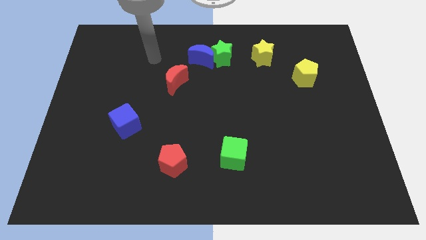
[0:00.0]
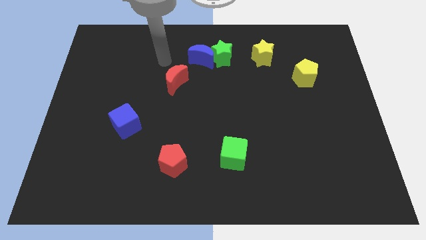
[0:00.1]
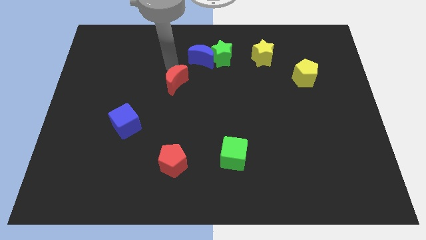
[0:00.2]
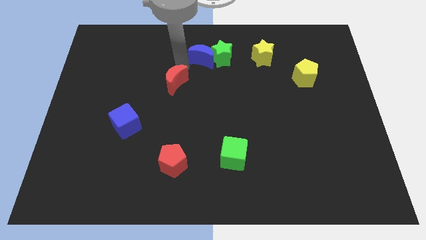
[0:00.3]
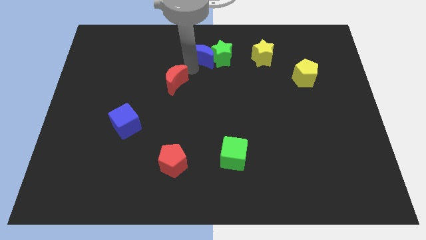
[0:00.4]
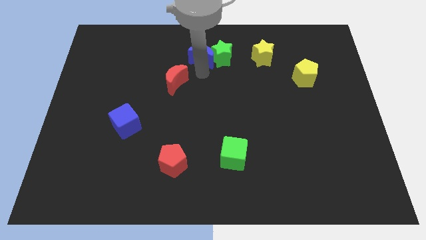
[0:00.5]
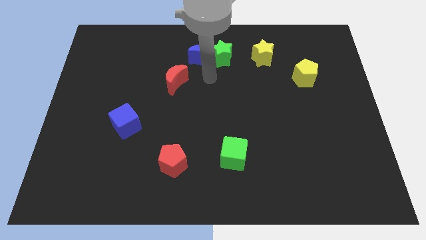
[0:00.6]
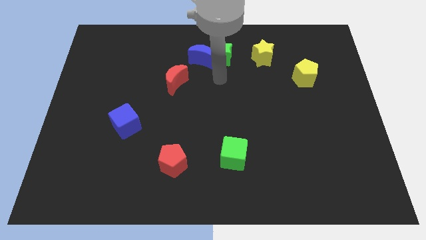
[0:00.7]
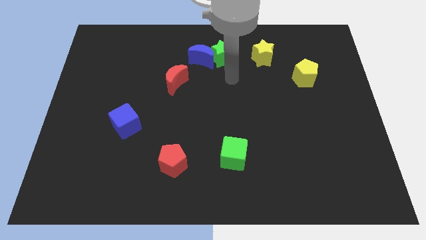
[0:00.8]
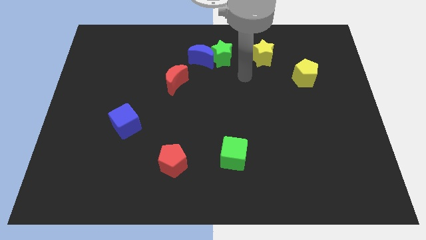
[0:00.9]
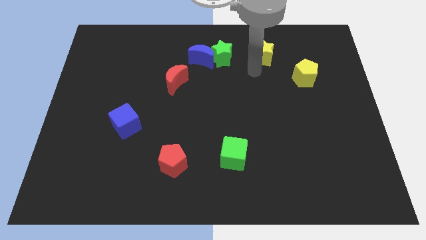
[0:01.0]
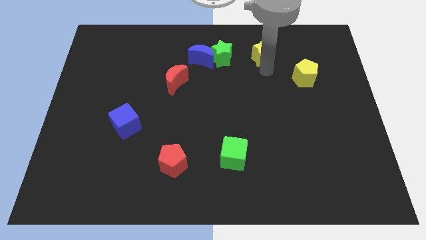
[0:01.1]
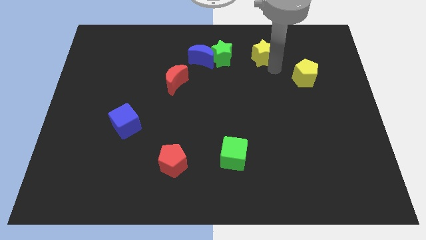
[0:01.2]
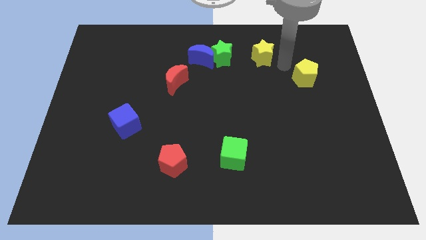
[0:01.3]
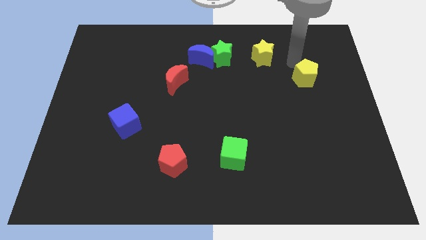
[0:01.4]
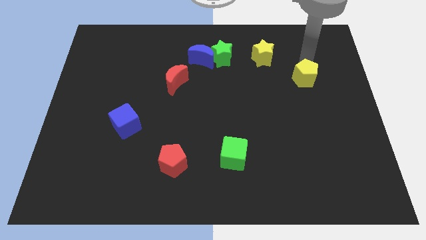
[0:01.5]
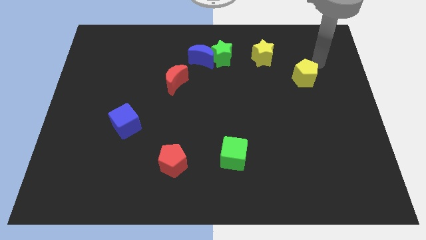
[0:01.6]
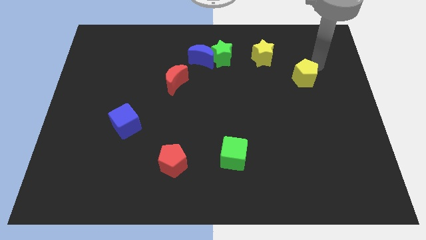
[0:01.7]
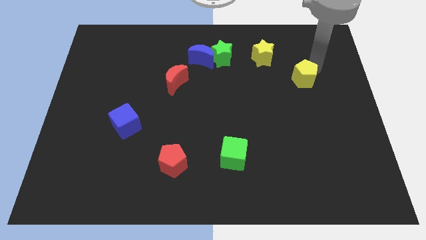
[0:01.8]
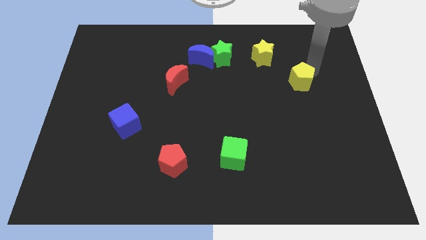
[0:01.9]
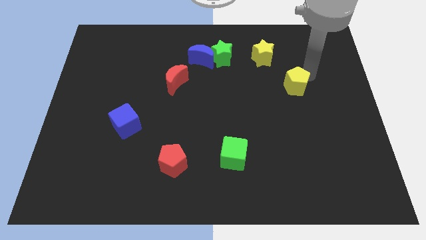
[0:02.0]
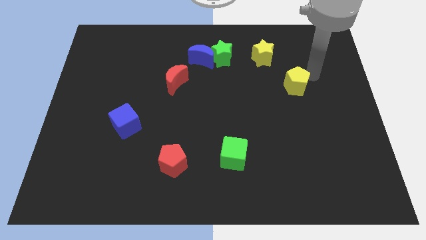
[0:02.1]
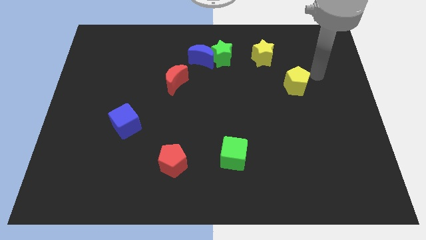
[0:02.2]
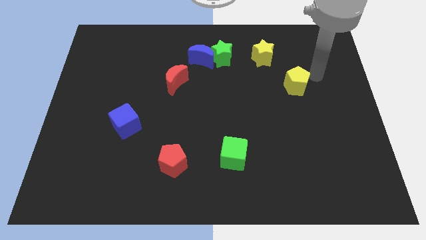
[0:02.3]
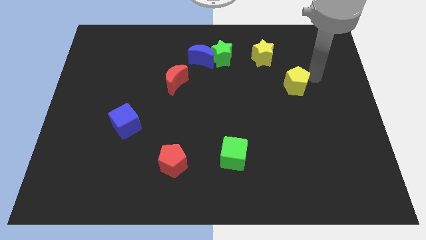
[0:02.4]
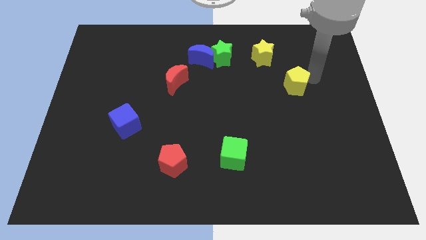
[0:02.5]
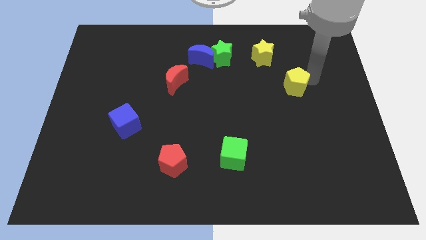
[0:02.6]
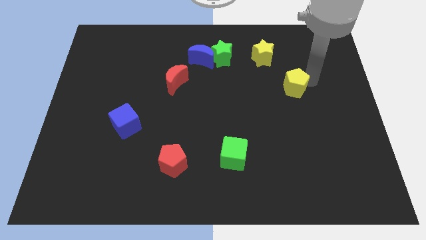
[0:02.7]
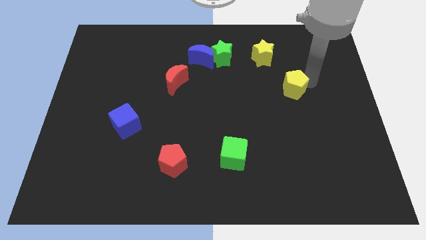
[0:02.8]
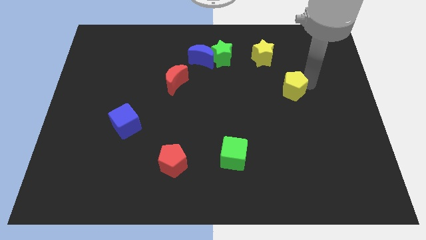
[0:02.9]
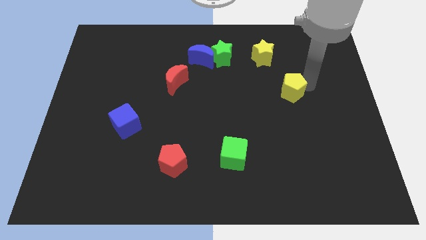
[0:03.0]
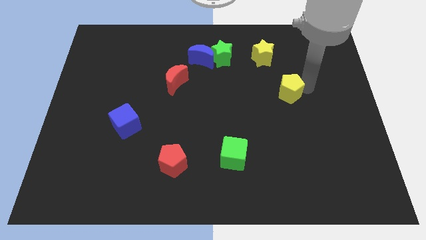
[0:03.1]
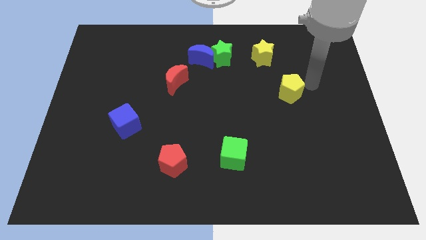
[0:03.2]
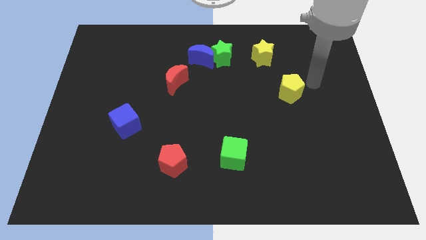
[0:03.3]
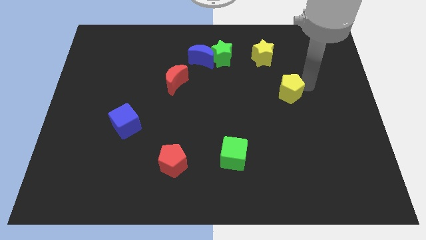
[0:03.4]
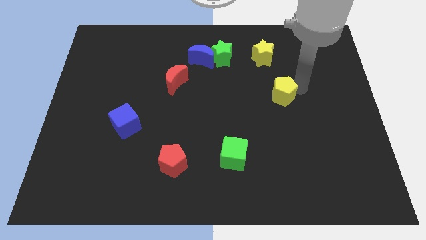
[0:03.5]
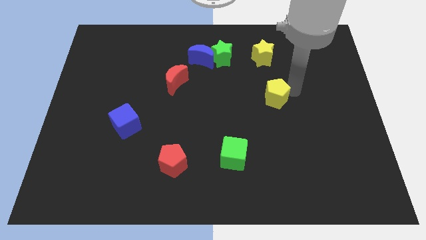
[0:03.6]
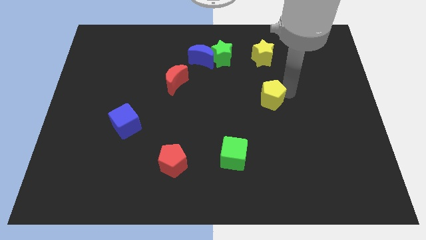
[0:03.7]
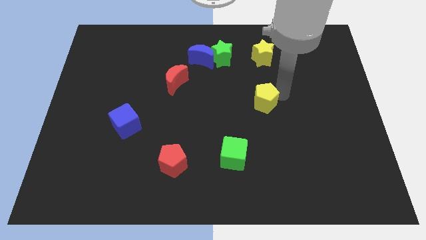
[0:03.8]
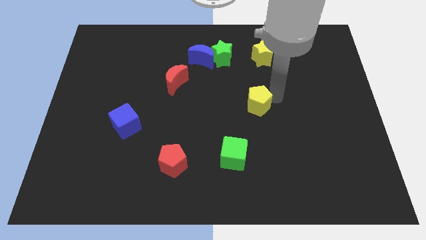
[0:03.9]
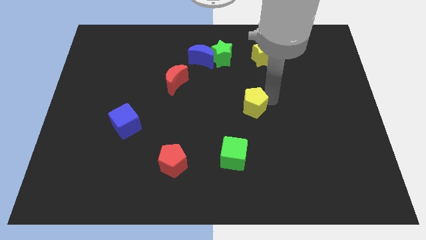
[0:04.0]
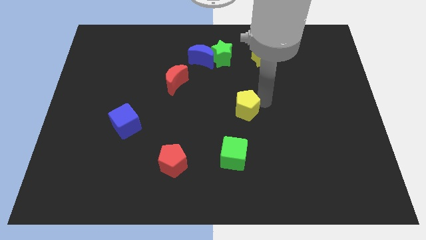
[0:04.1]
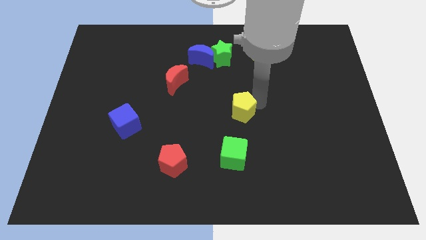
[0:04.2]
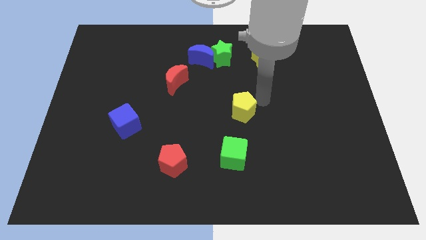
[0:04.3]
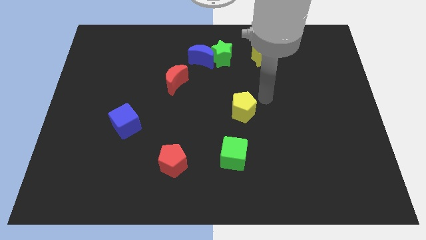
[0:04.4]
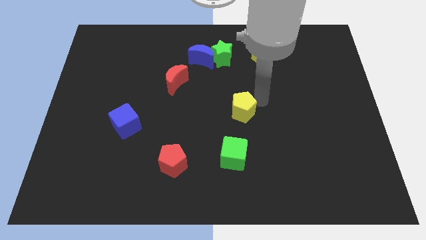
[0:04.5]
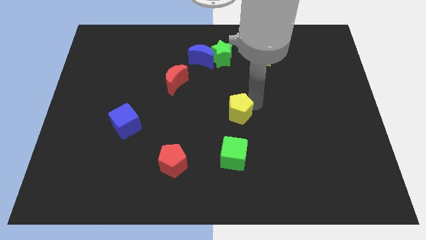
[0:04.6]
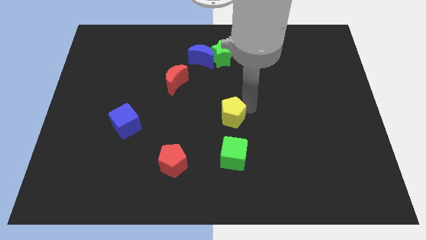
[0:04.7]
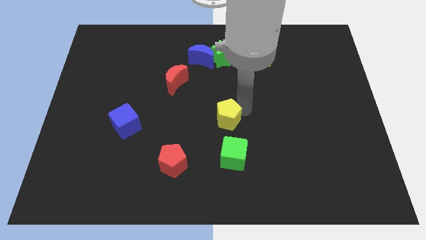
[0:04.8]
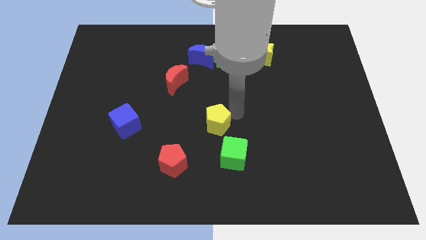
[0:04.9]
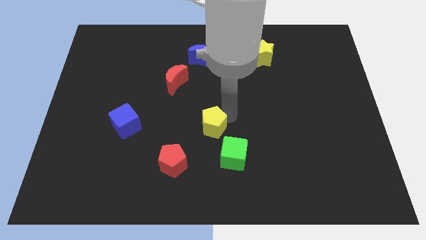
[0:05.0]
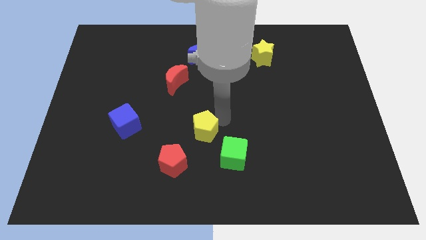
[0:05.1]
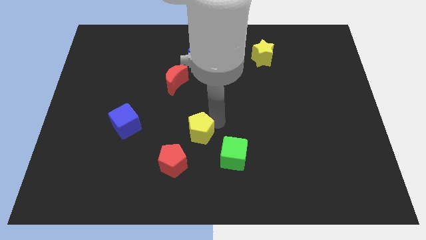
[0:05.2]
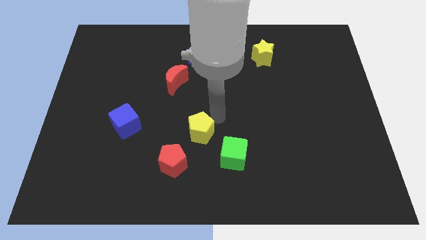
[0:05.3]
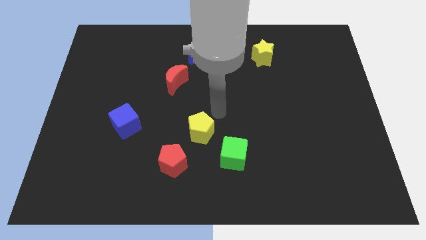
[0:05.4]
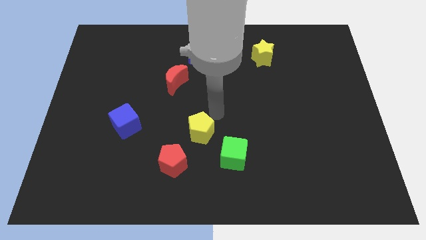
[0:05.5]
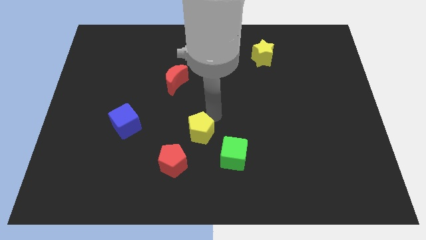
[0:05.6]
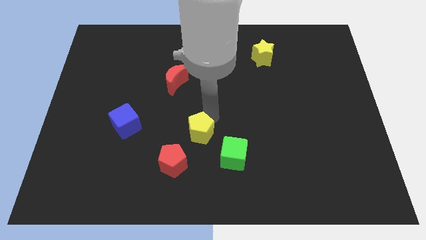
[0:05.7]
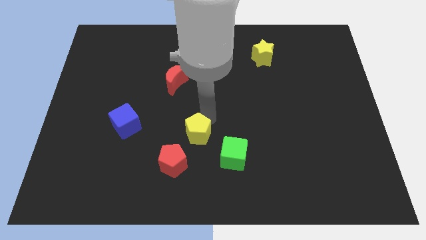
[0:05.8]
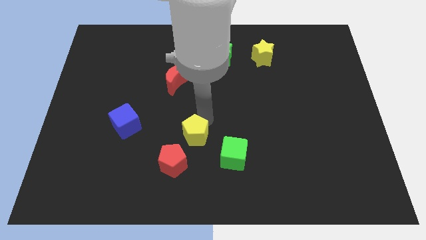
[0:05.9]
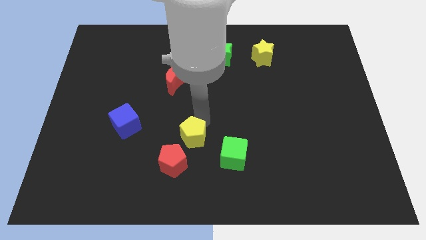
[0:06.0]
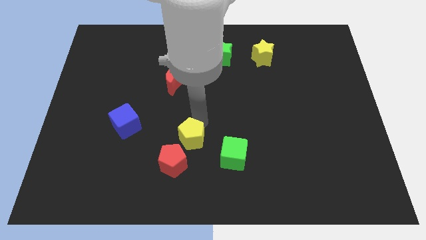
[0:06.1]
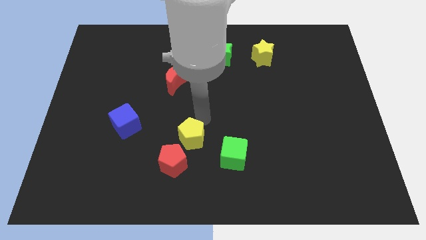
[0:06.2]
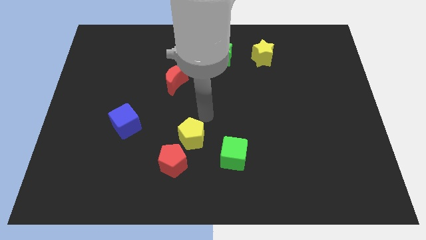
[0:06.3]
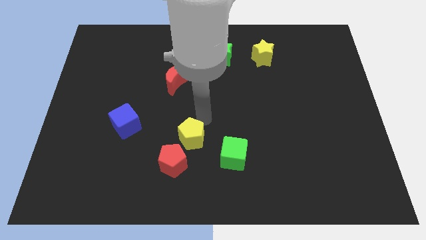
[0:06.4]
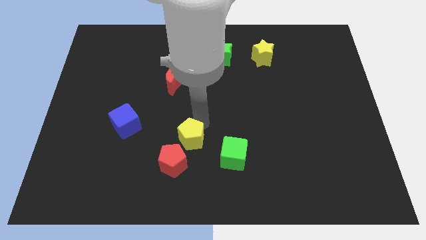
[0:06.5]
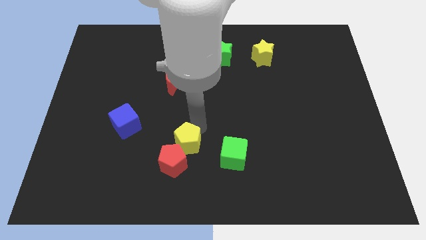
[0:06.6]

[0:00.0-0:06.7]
slide the yellow pentagon next to the red pentagon

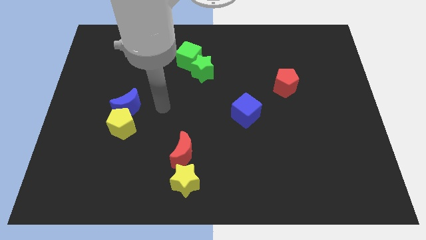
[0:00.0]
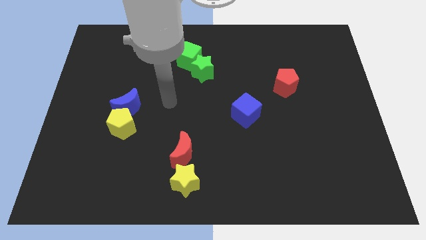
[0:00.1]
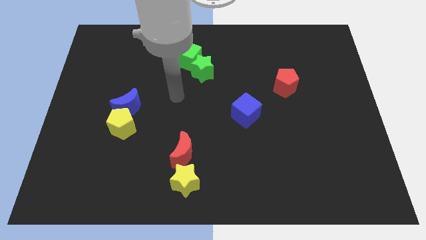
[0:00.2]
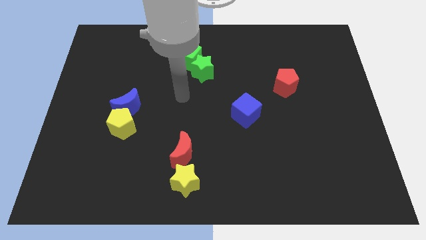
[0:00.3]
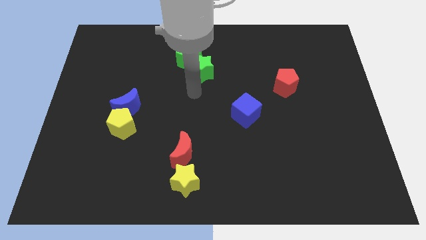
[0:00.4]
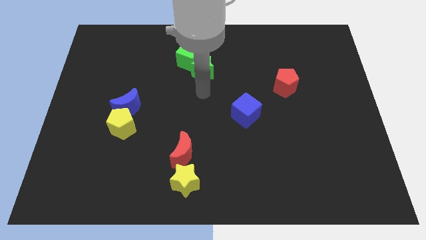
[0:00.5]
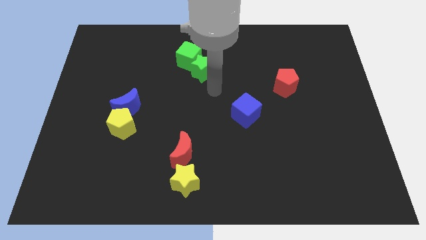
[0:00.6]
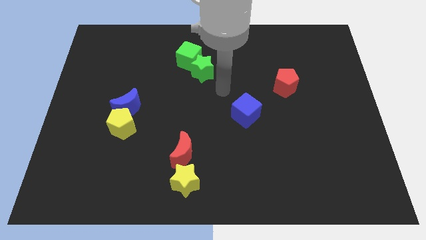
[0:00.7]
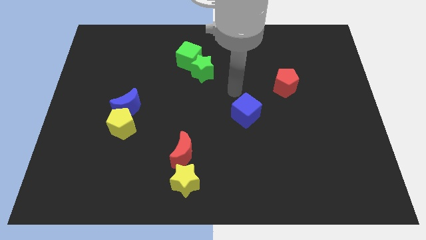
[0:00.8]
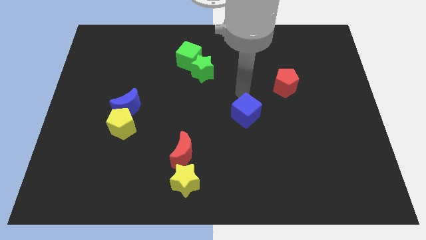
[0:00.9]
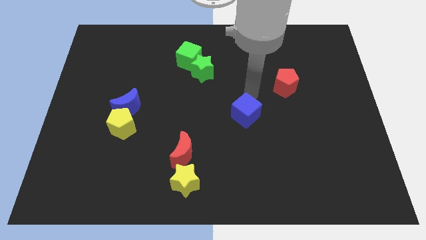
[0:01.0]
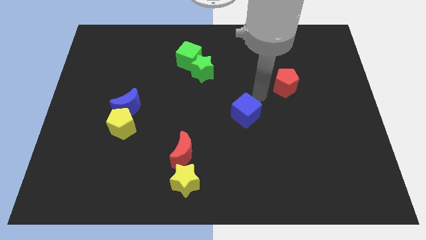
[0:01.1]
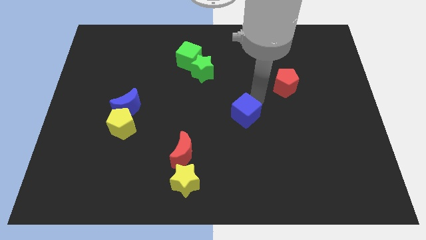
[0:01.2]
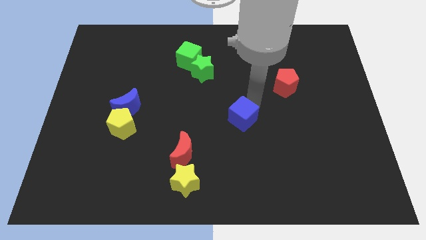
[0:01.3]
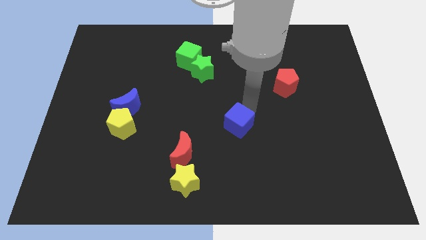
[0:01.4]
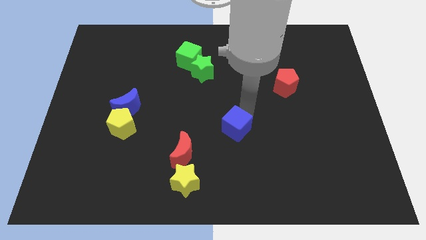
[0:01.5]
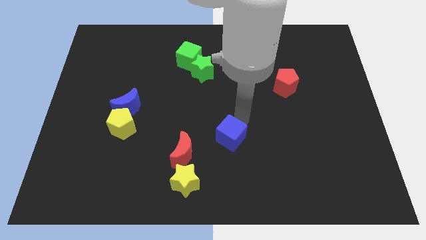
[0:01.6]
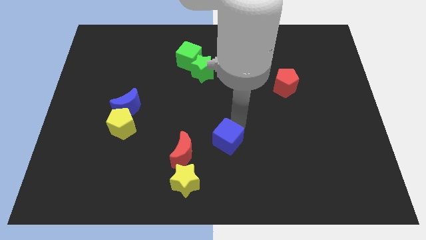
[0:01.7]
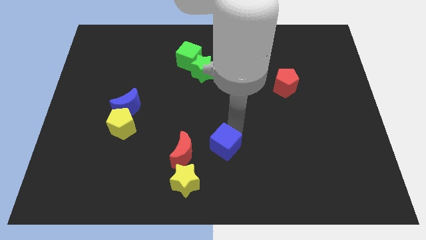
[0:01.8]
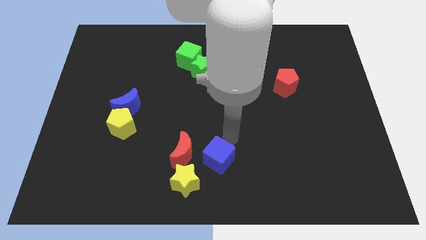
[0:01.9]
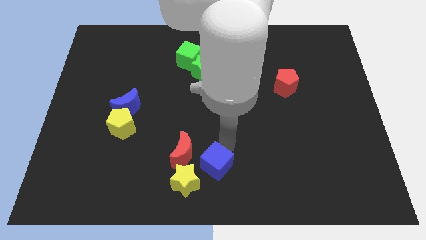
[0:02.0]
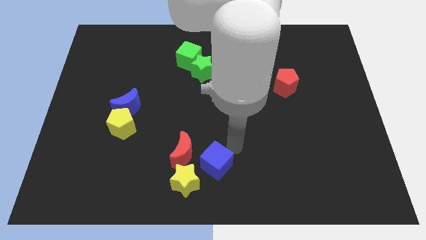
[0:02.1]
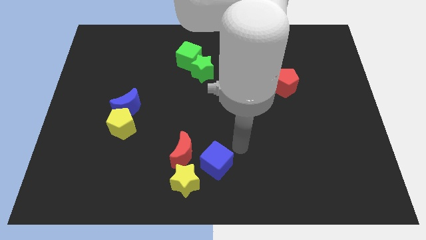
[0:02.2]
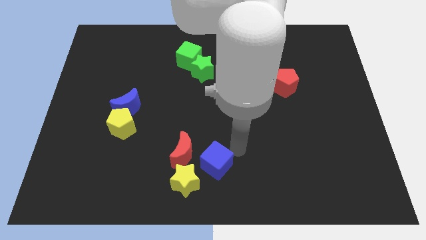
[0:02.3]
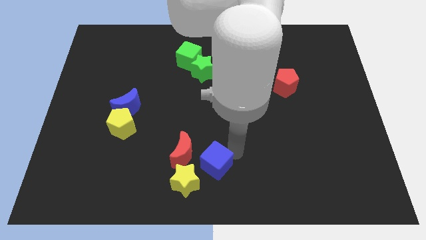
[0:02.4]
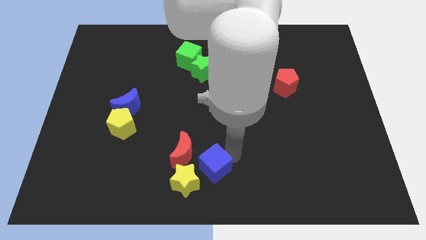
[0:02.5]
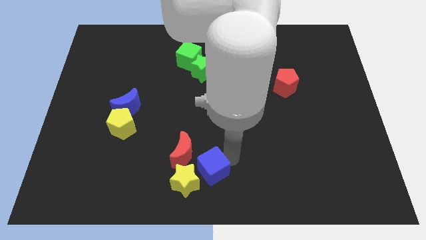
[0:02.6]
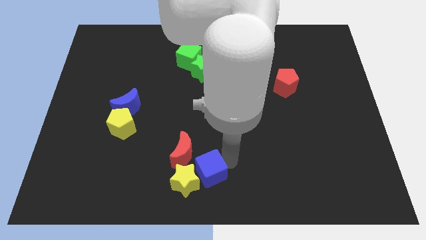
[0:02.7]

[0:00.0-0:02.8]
slide the blue cube close to the yellow star
